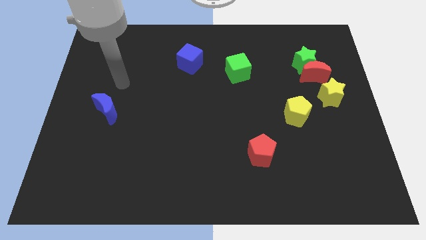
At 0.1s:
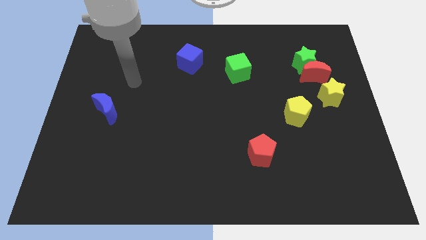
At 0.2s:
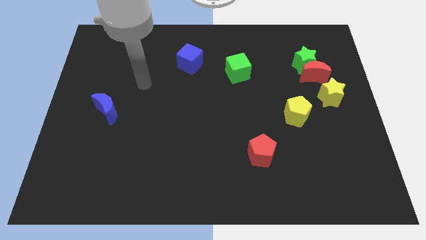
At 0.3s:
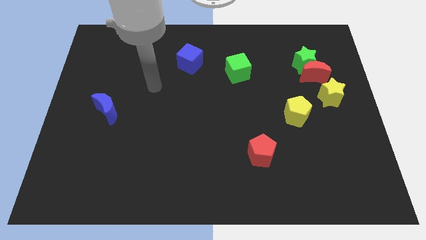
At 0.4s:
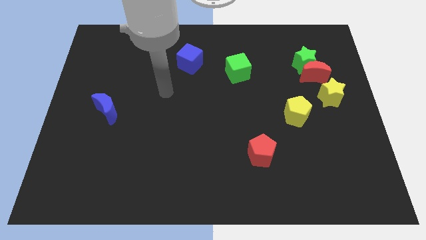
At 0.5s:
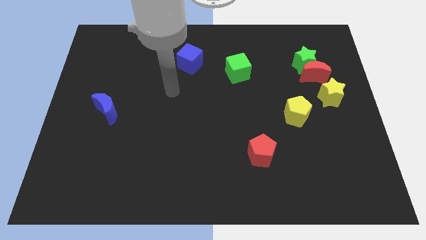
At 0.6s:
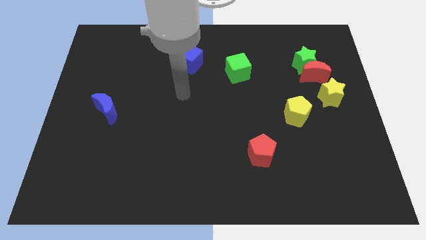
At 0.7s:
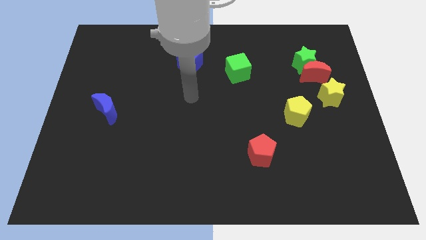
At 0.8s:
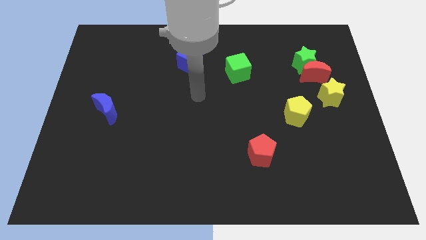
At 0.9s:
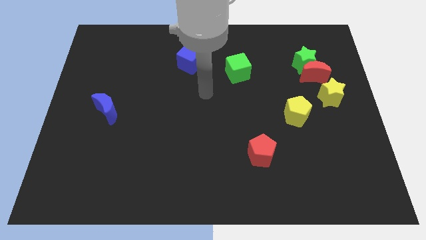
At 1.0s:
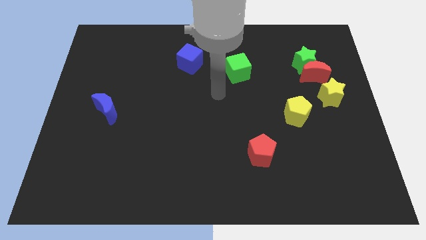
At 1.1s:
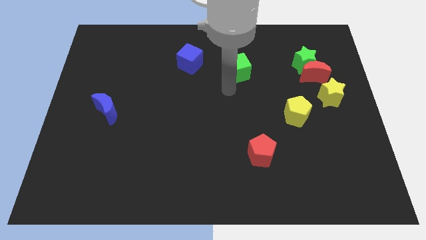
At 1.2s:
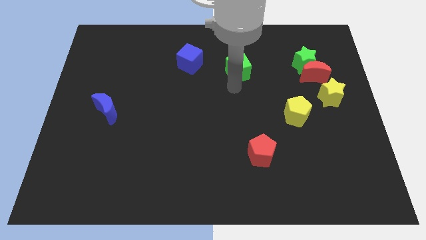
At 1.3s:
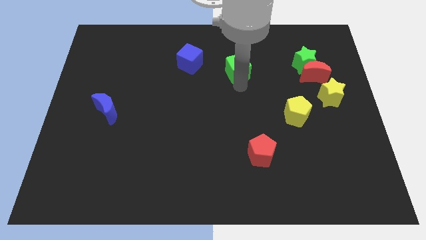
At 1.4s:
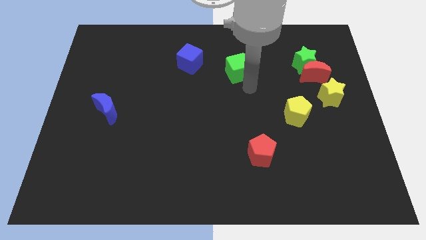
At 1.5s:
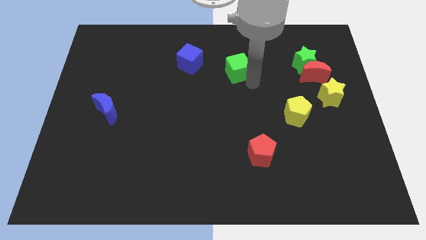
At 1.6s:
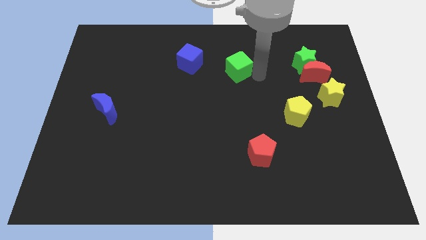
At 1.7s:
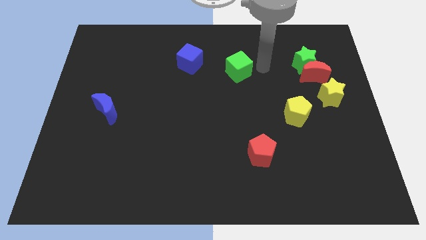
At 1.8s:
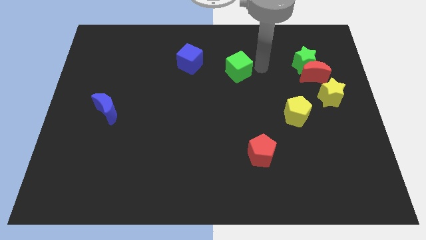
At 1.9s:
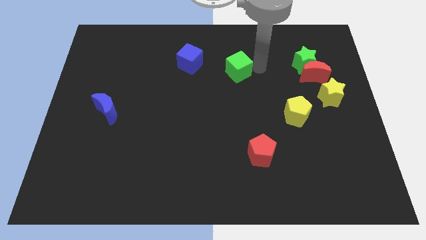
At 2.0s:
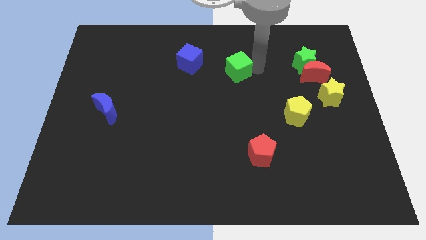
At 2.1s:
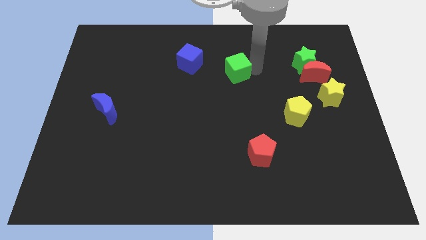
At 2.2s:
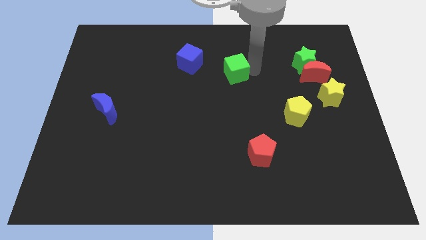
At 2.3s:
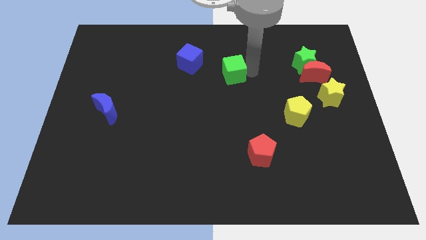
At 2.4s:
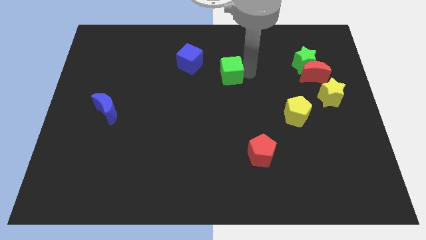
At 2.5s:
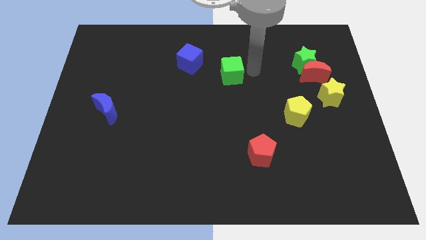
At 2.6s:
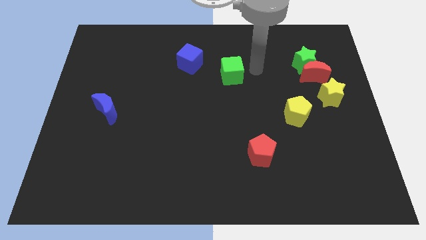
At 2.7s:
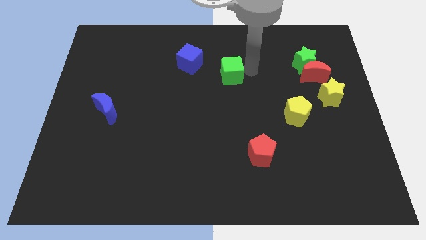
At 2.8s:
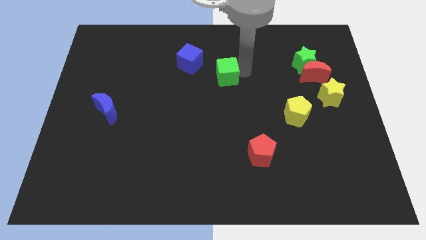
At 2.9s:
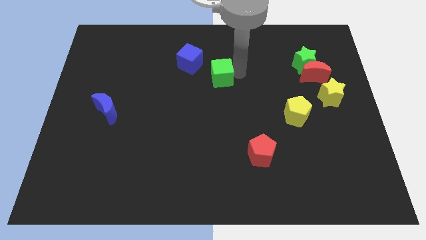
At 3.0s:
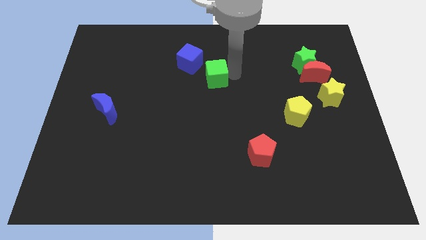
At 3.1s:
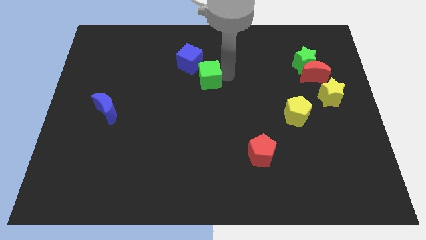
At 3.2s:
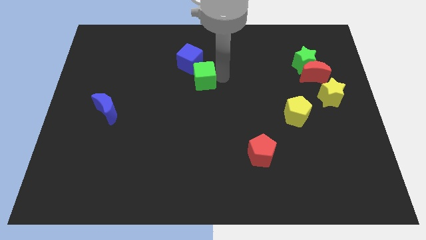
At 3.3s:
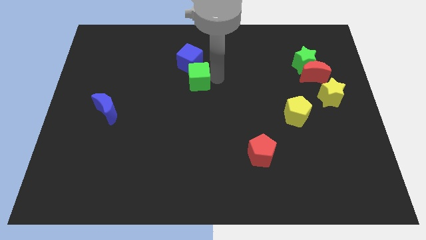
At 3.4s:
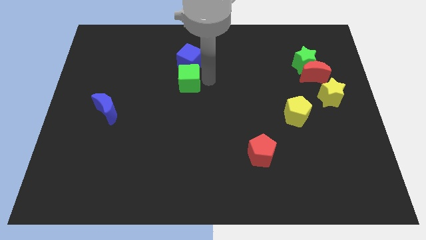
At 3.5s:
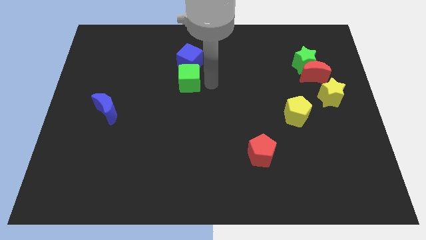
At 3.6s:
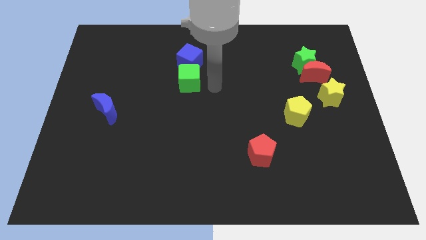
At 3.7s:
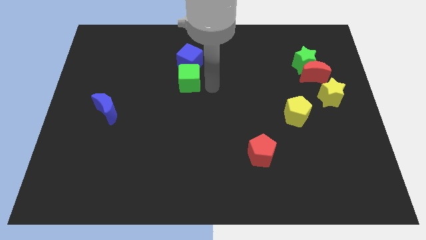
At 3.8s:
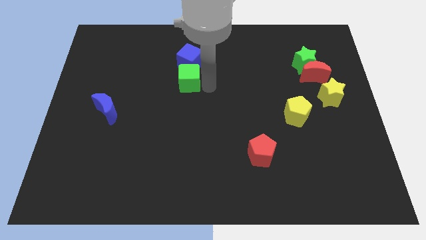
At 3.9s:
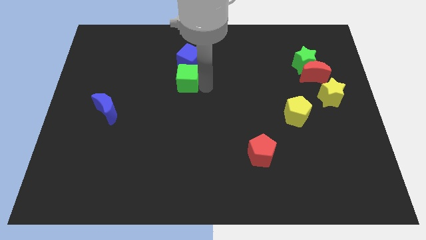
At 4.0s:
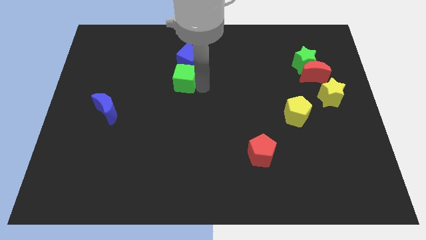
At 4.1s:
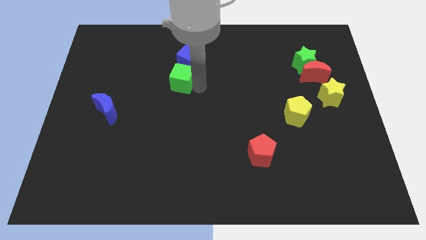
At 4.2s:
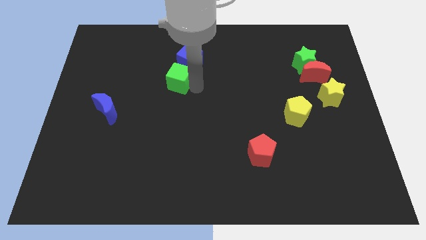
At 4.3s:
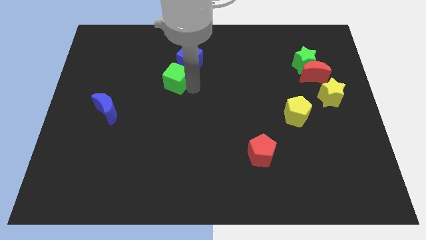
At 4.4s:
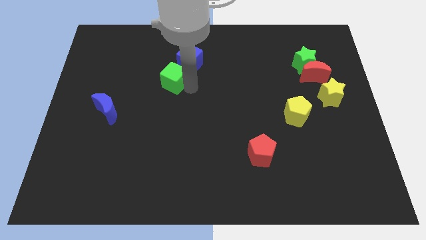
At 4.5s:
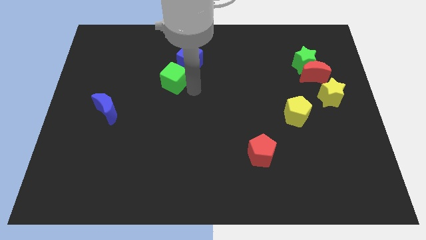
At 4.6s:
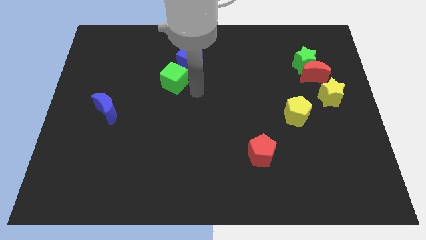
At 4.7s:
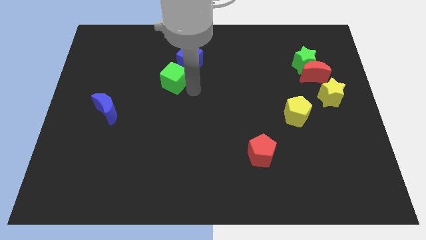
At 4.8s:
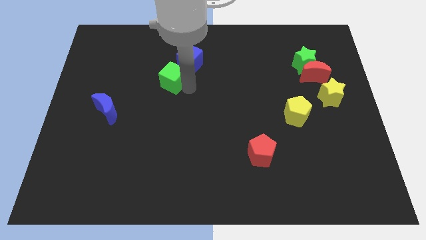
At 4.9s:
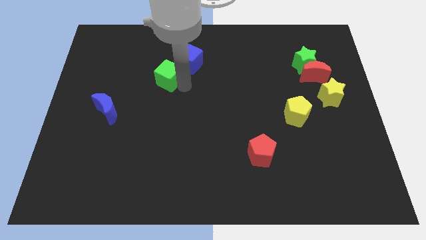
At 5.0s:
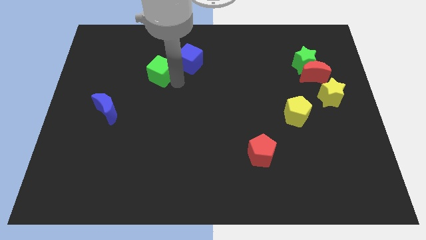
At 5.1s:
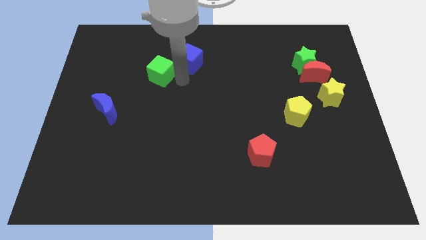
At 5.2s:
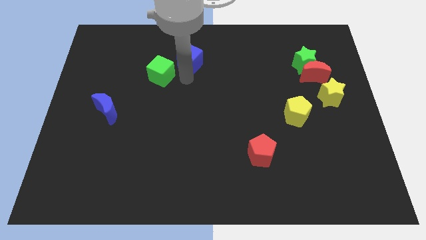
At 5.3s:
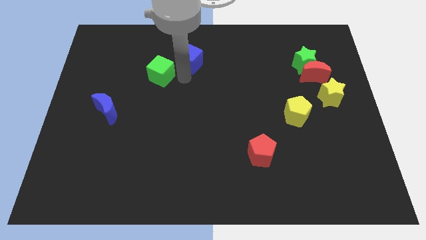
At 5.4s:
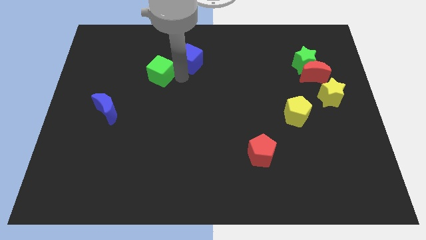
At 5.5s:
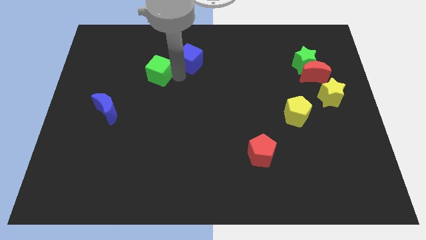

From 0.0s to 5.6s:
slide the green cube to the left

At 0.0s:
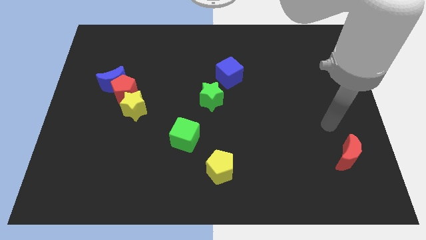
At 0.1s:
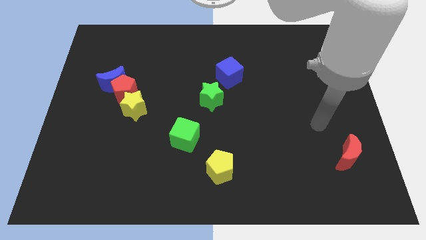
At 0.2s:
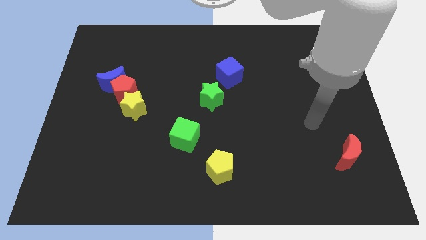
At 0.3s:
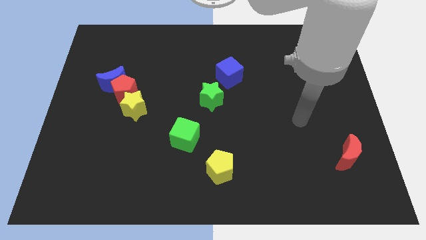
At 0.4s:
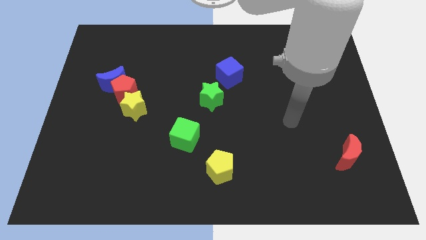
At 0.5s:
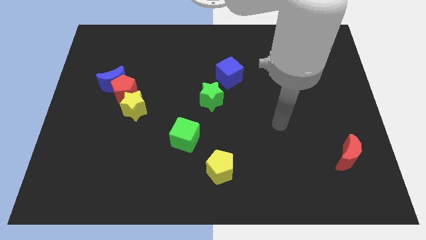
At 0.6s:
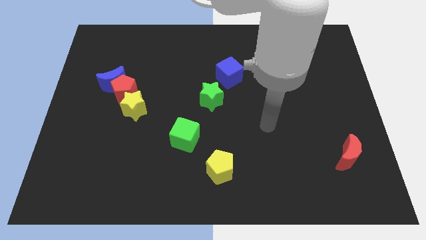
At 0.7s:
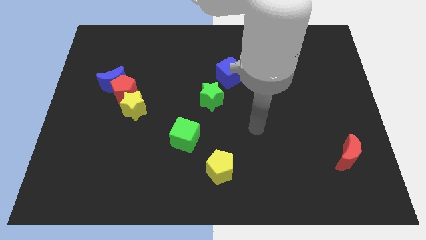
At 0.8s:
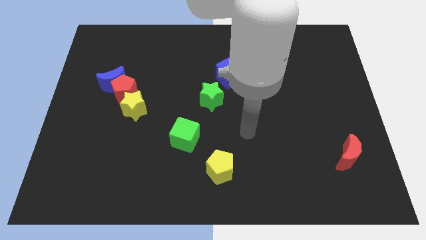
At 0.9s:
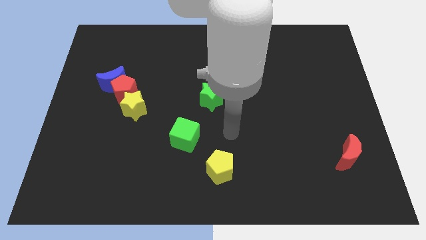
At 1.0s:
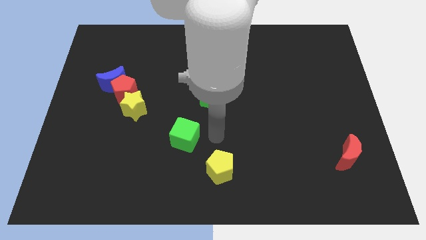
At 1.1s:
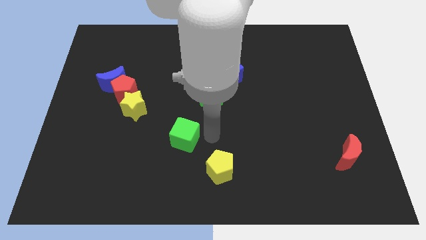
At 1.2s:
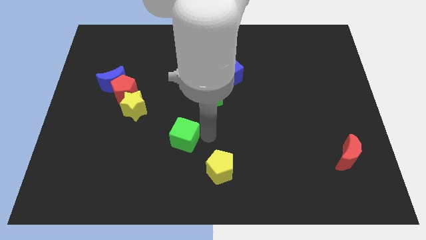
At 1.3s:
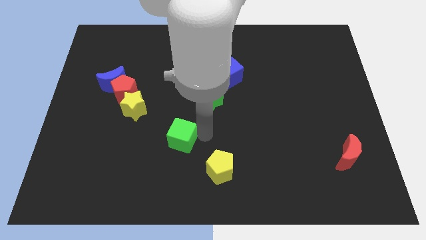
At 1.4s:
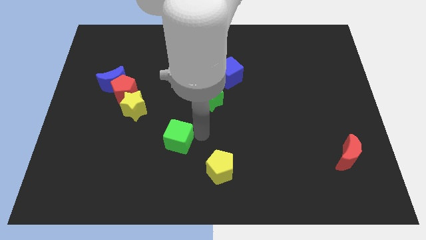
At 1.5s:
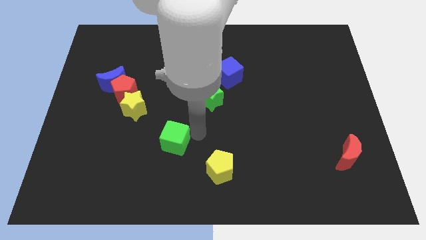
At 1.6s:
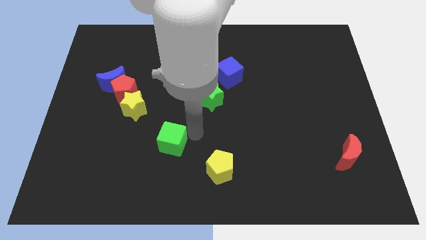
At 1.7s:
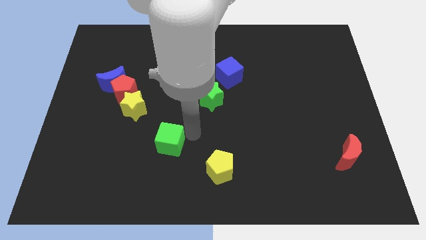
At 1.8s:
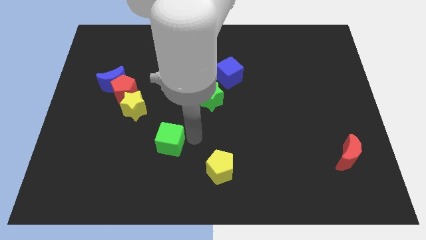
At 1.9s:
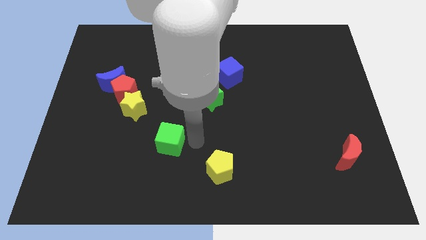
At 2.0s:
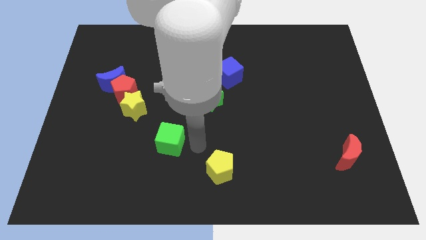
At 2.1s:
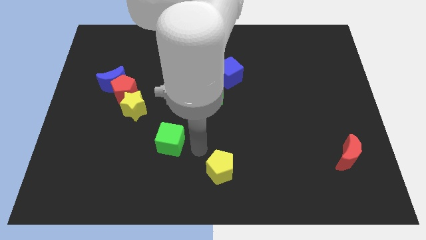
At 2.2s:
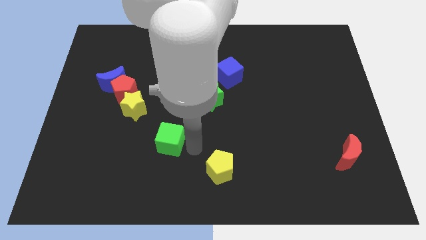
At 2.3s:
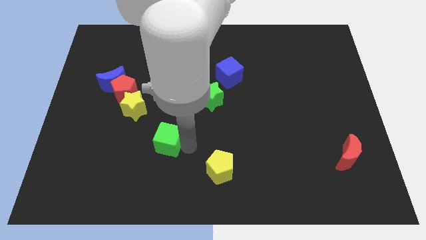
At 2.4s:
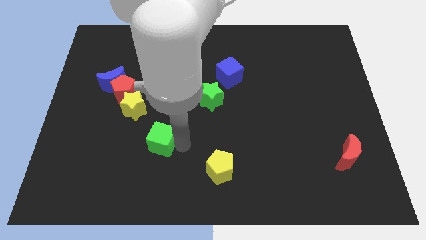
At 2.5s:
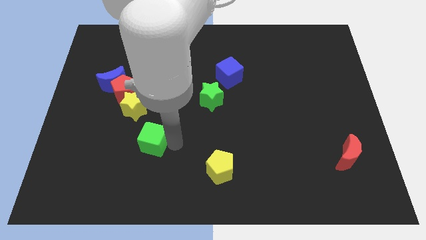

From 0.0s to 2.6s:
slightly push the green cube to the left

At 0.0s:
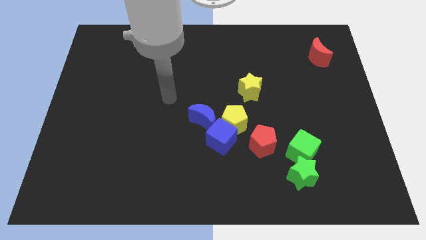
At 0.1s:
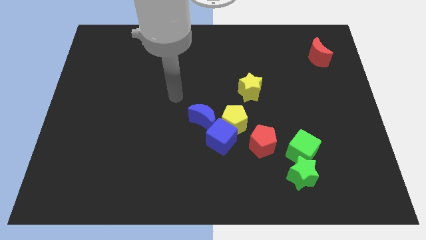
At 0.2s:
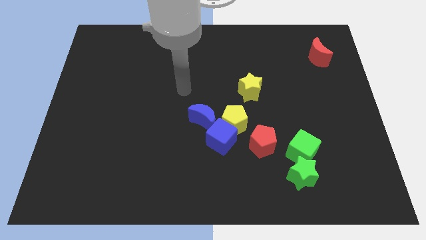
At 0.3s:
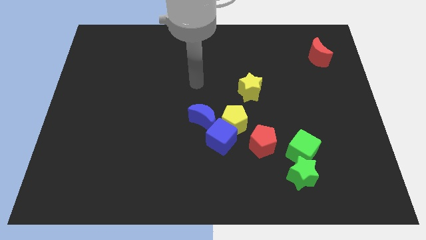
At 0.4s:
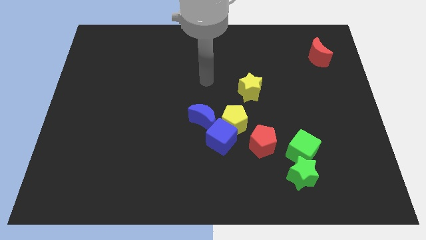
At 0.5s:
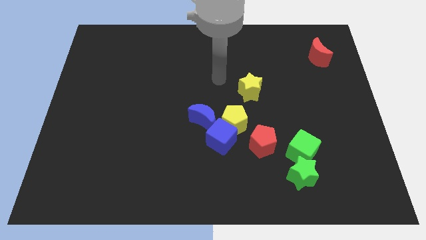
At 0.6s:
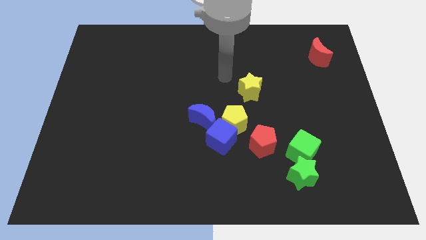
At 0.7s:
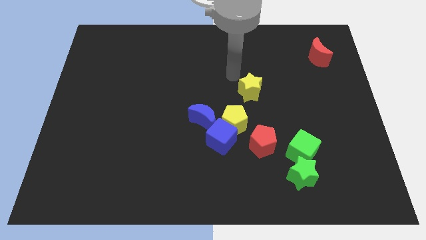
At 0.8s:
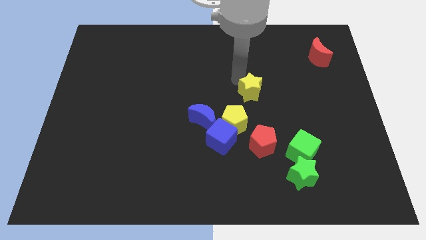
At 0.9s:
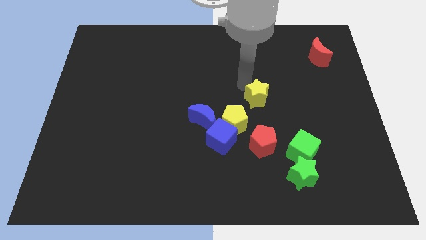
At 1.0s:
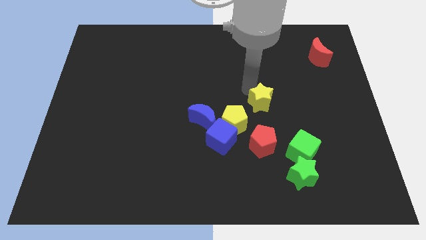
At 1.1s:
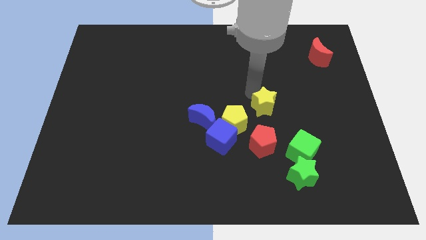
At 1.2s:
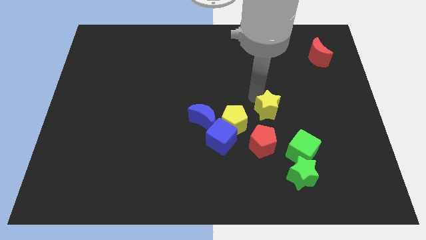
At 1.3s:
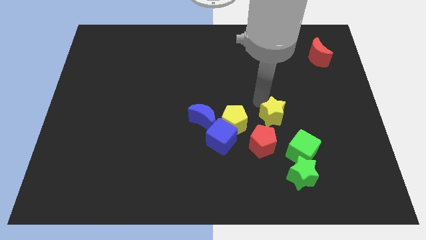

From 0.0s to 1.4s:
slightly move the yellow star diagonally downwards and to the right
